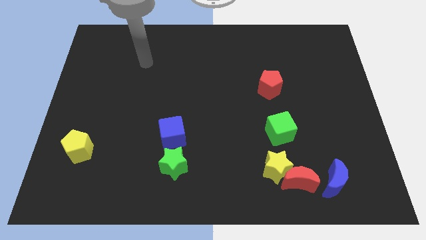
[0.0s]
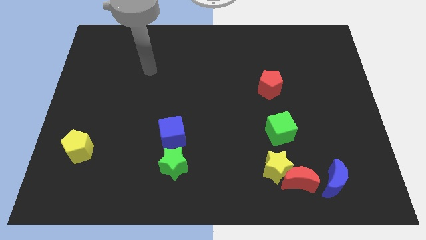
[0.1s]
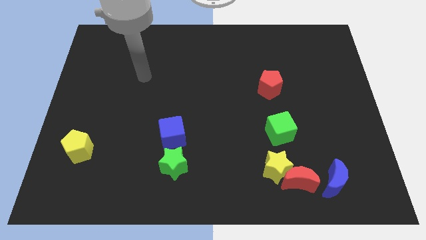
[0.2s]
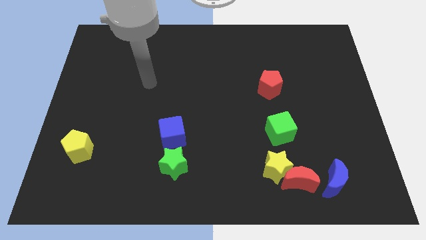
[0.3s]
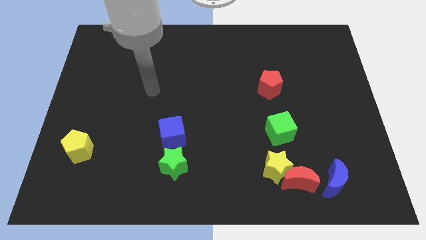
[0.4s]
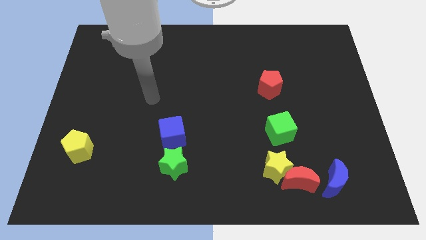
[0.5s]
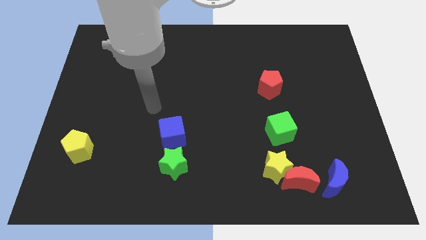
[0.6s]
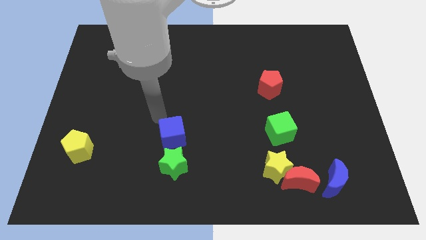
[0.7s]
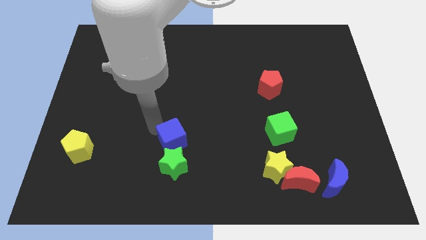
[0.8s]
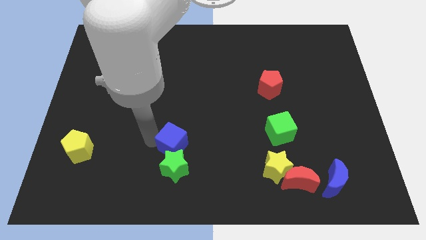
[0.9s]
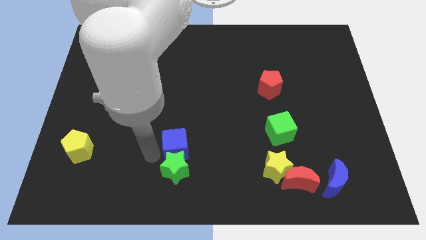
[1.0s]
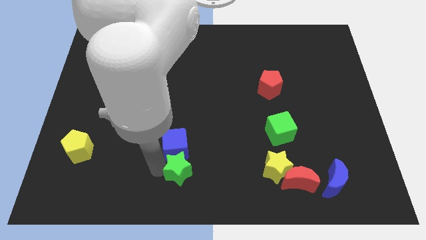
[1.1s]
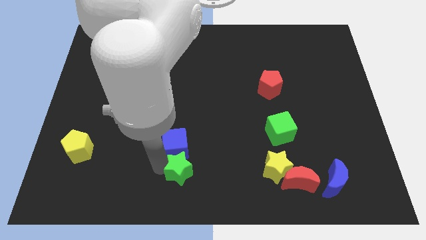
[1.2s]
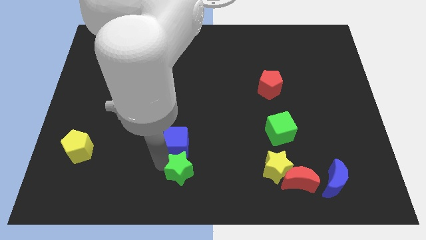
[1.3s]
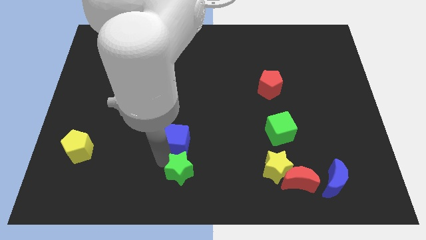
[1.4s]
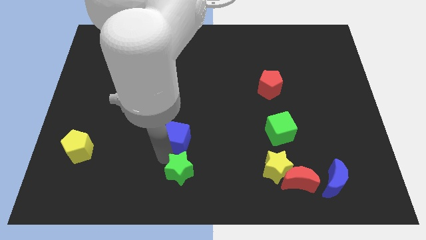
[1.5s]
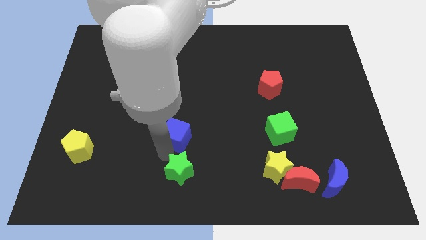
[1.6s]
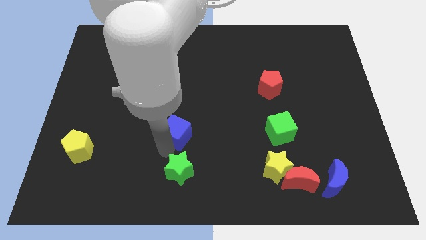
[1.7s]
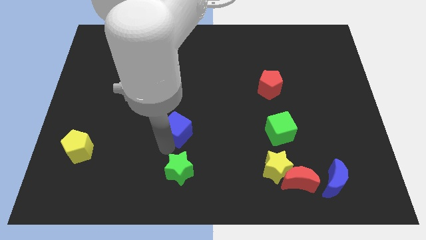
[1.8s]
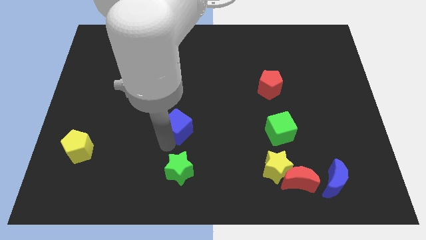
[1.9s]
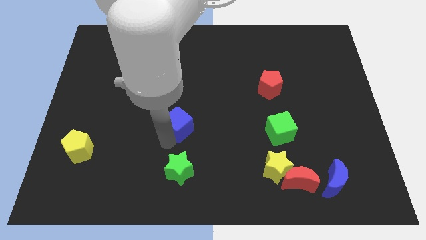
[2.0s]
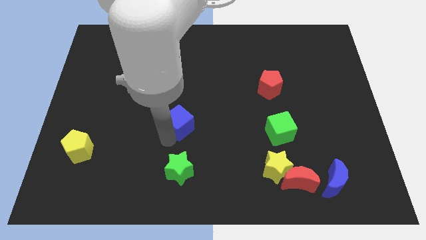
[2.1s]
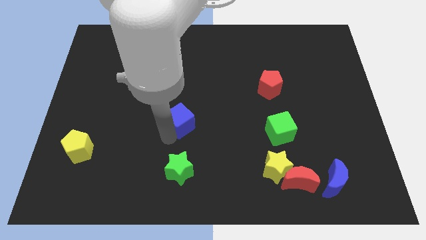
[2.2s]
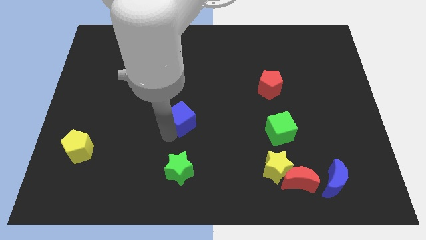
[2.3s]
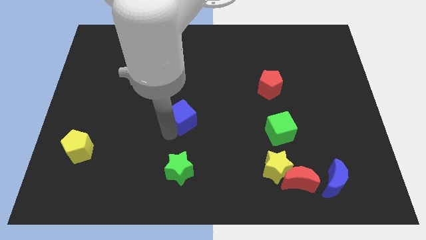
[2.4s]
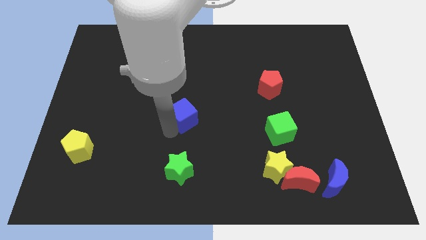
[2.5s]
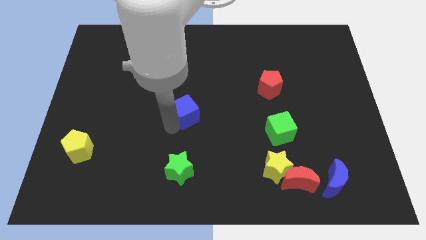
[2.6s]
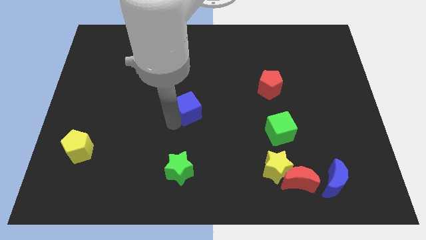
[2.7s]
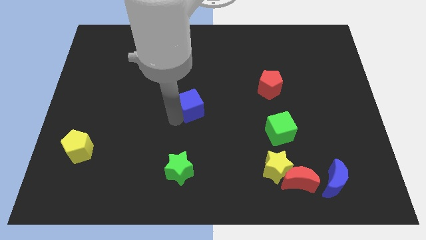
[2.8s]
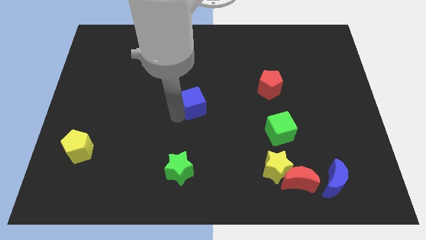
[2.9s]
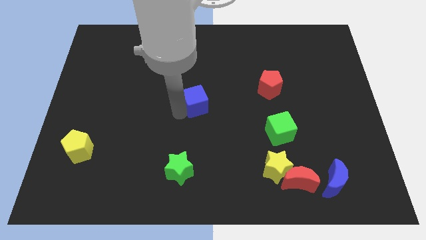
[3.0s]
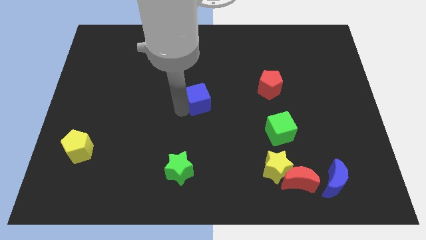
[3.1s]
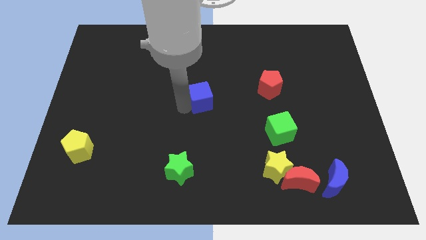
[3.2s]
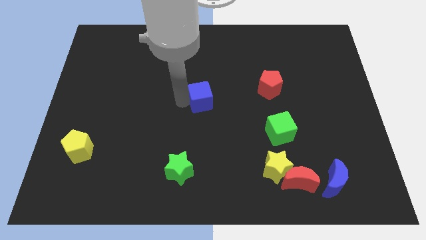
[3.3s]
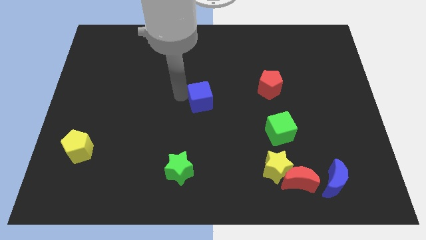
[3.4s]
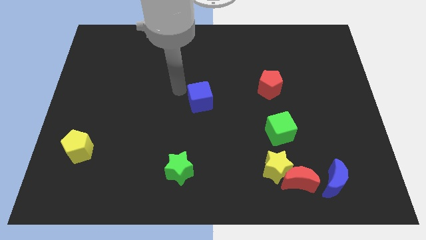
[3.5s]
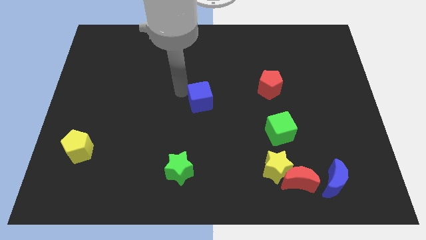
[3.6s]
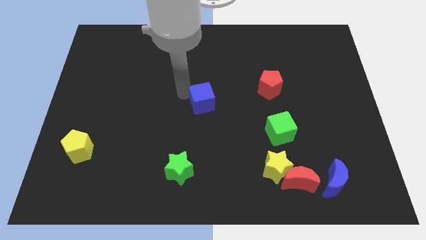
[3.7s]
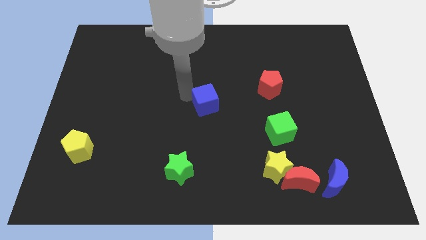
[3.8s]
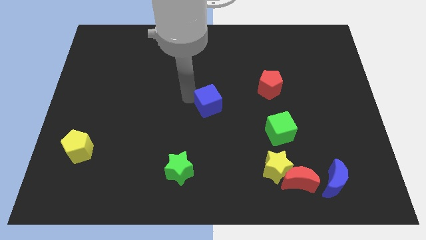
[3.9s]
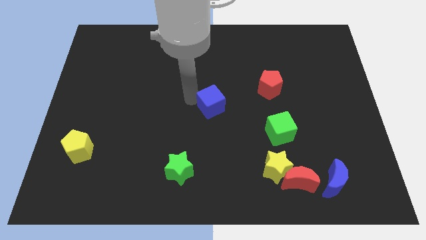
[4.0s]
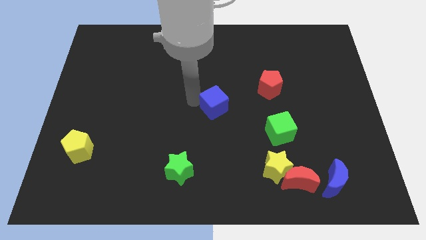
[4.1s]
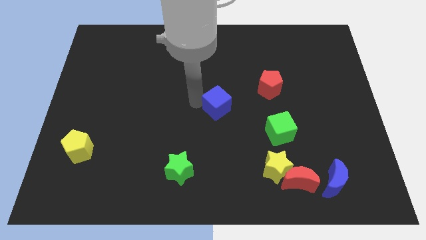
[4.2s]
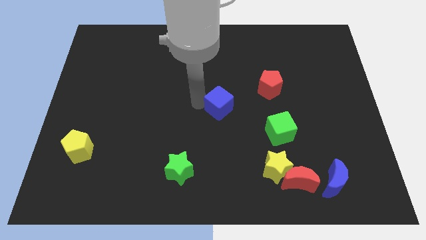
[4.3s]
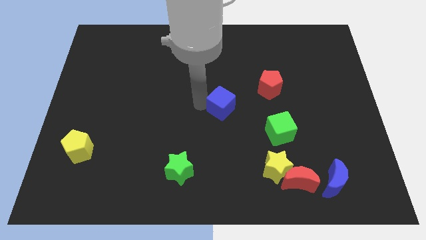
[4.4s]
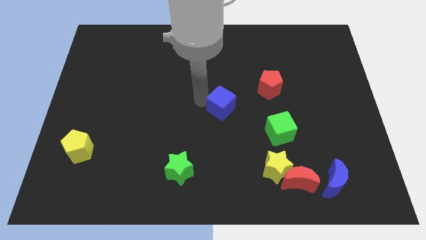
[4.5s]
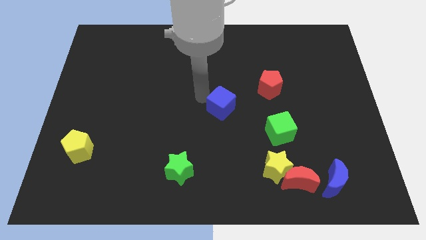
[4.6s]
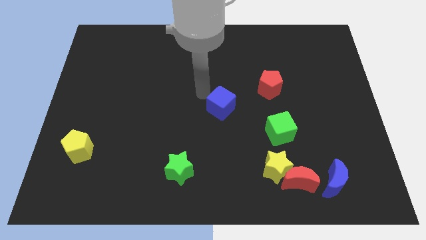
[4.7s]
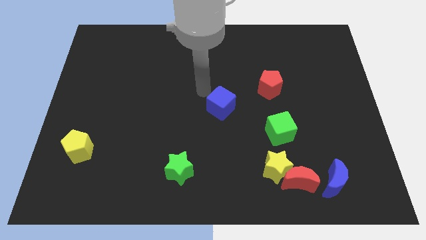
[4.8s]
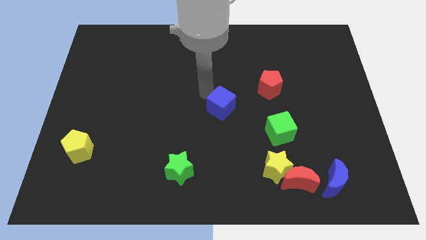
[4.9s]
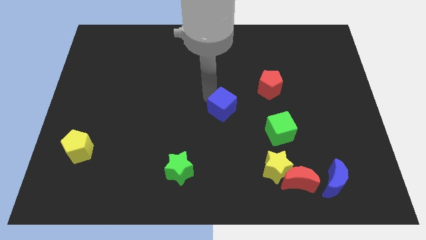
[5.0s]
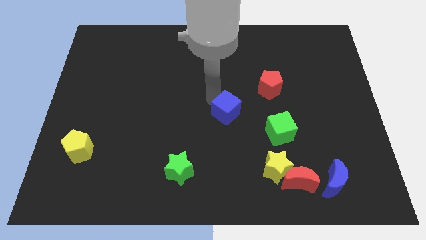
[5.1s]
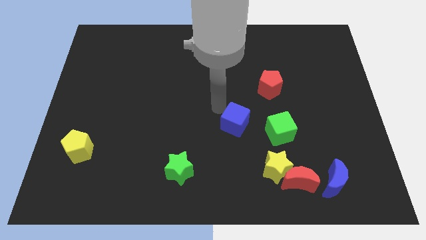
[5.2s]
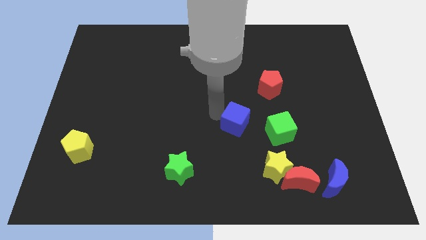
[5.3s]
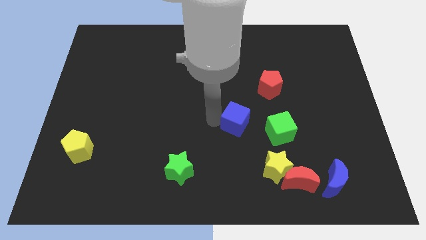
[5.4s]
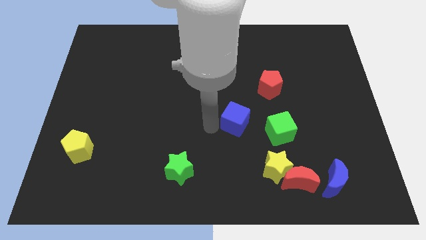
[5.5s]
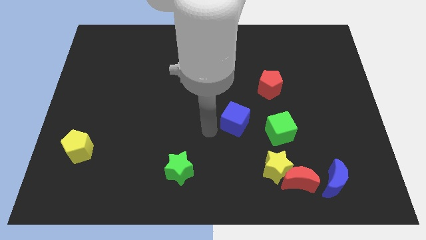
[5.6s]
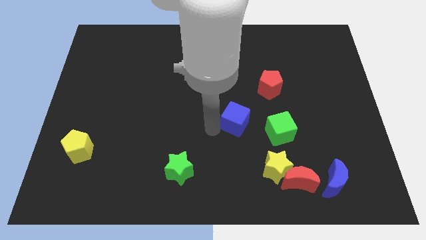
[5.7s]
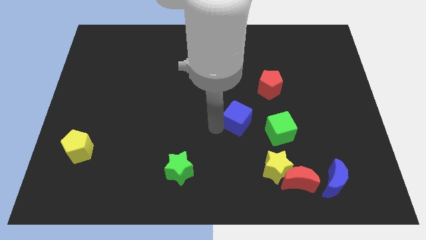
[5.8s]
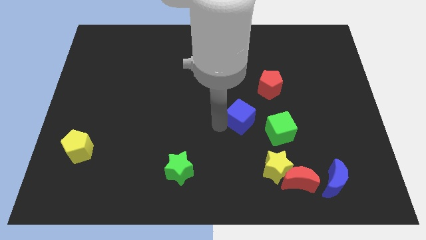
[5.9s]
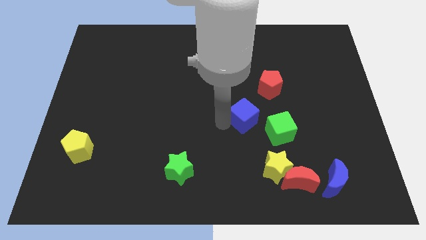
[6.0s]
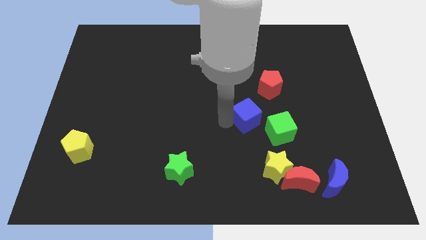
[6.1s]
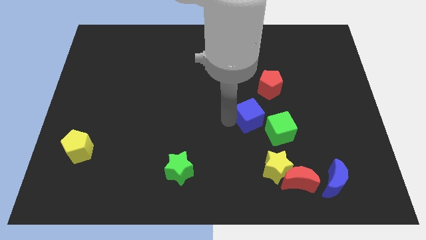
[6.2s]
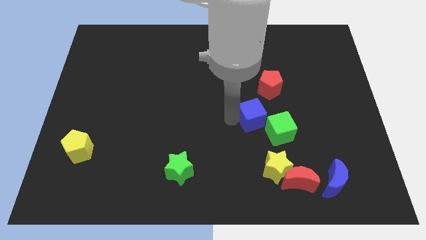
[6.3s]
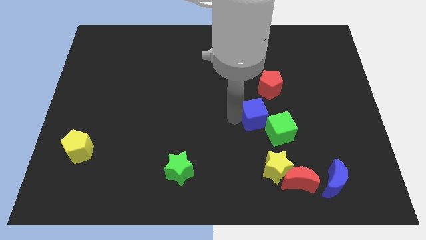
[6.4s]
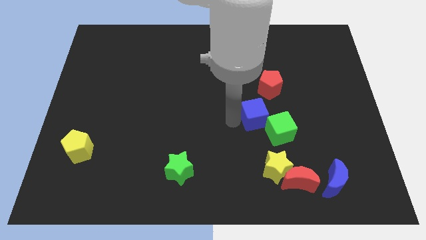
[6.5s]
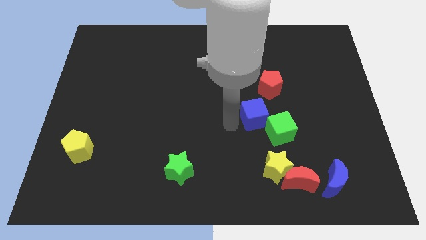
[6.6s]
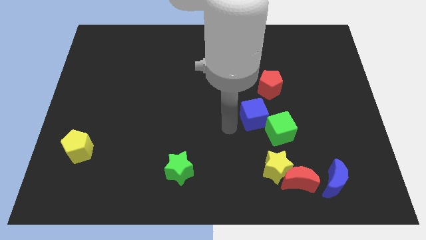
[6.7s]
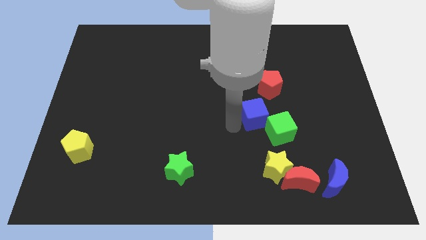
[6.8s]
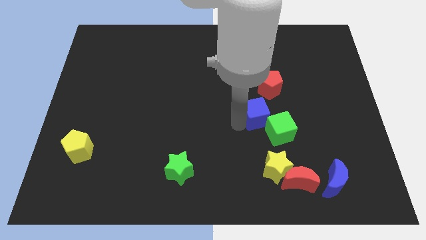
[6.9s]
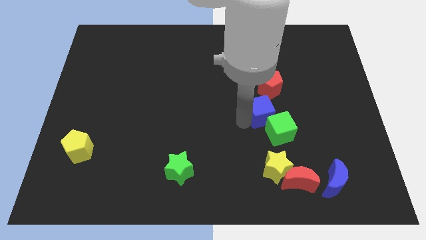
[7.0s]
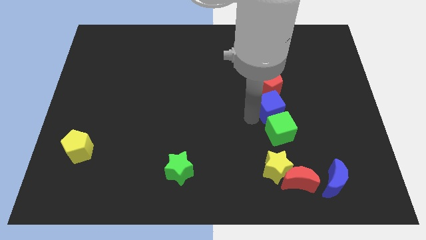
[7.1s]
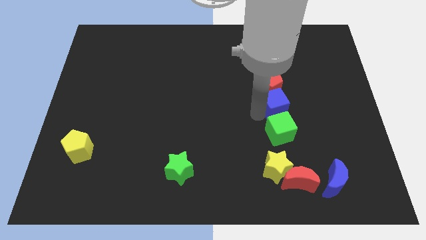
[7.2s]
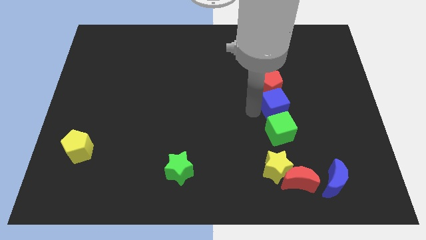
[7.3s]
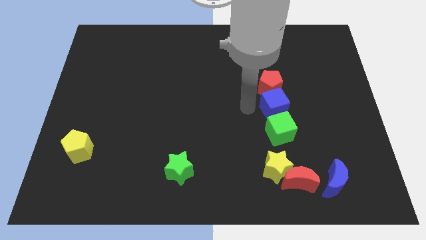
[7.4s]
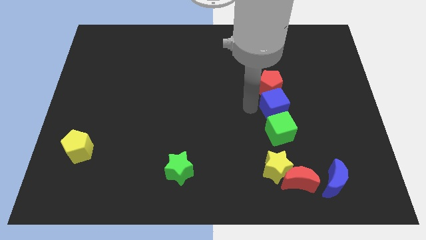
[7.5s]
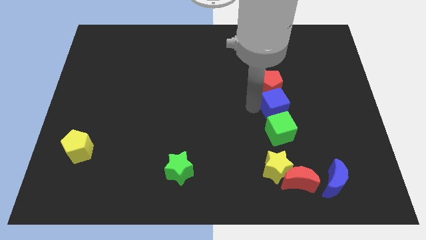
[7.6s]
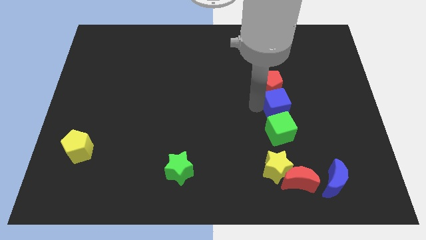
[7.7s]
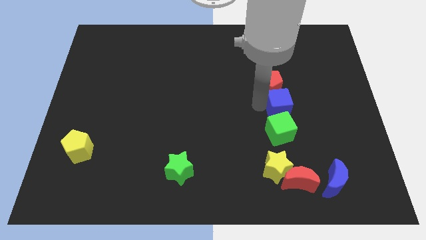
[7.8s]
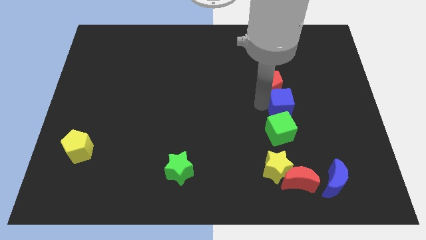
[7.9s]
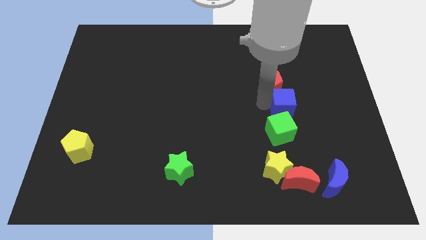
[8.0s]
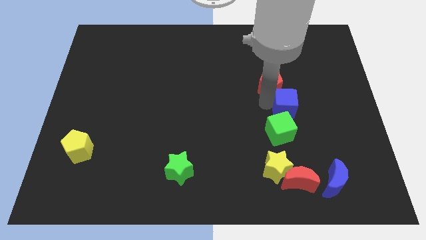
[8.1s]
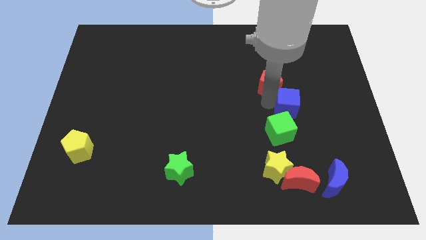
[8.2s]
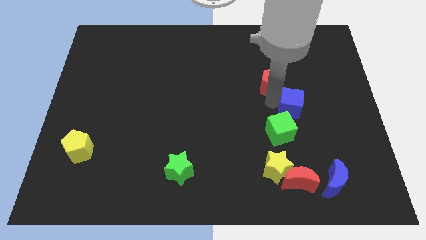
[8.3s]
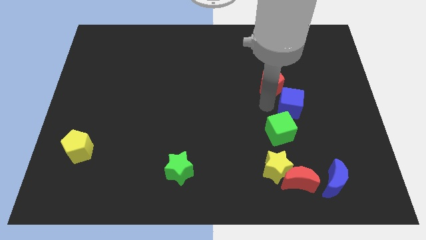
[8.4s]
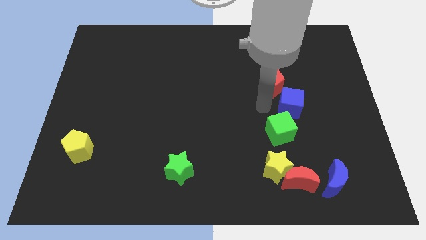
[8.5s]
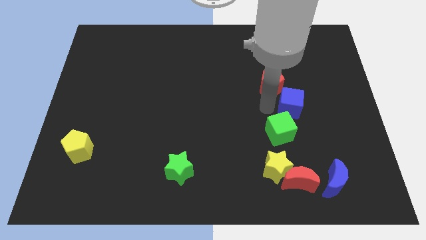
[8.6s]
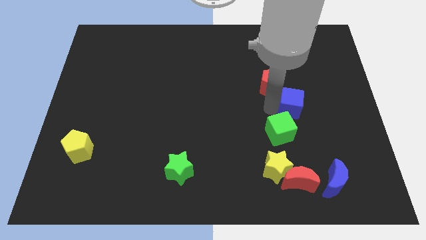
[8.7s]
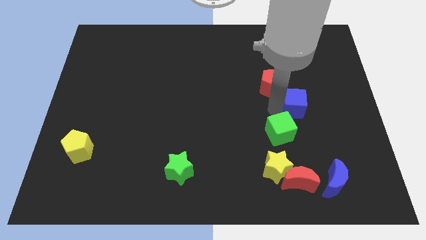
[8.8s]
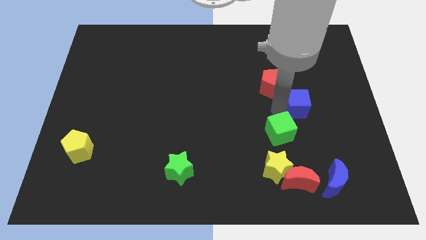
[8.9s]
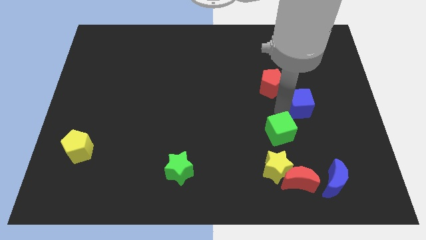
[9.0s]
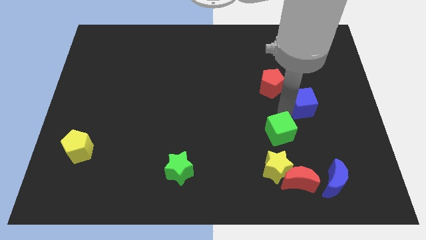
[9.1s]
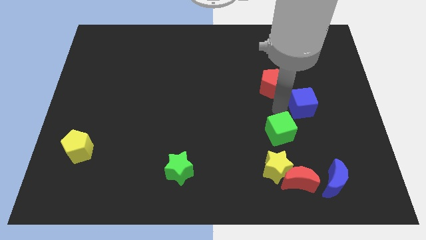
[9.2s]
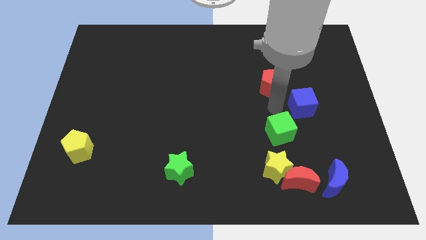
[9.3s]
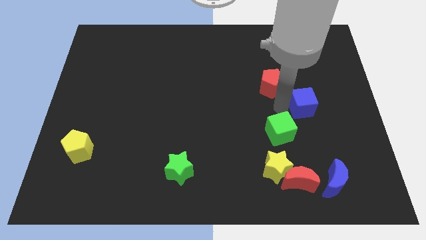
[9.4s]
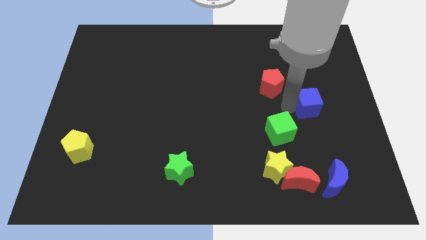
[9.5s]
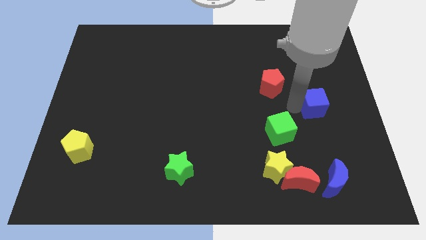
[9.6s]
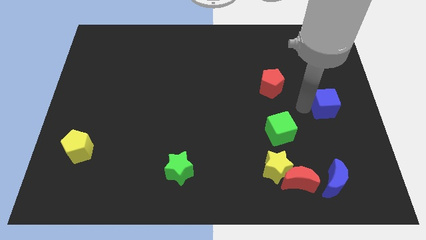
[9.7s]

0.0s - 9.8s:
put the blue cube to the right side of the board
